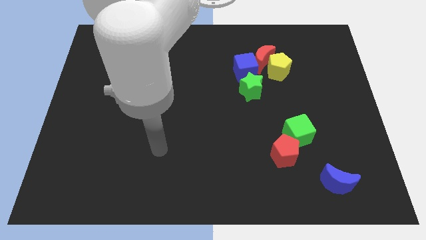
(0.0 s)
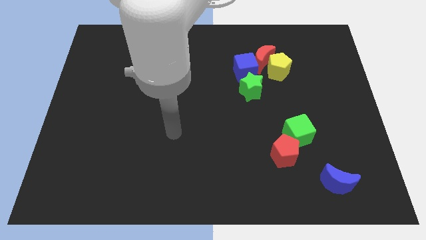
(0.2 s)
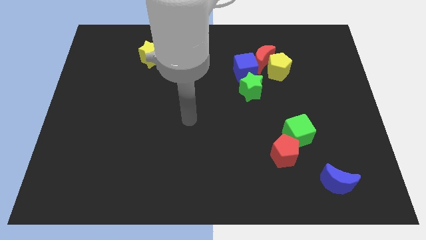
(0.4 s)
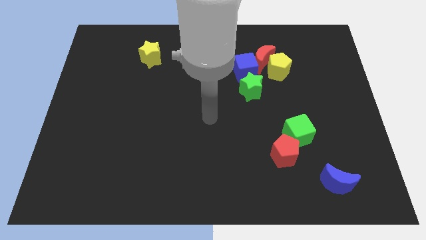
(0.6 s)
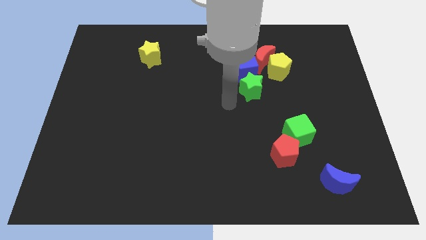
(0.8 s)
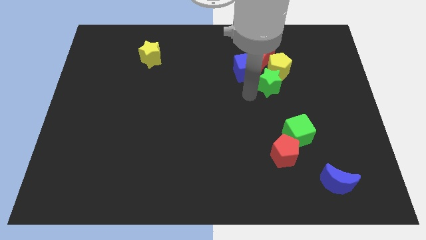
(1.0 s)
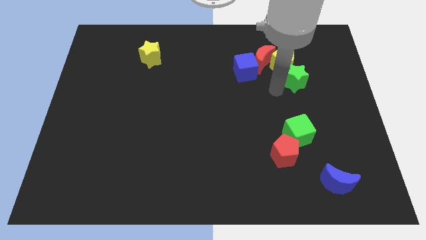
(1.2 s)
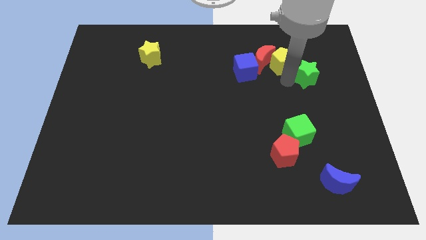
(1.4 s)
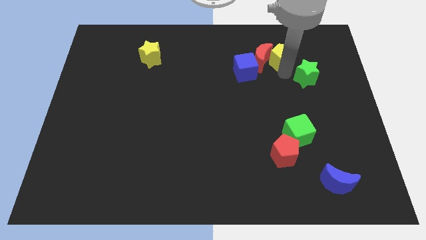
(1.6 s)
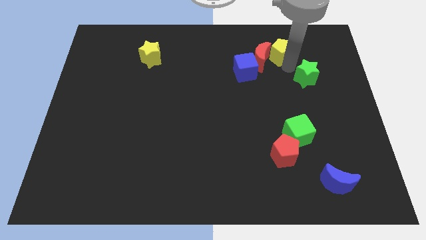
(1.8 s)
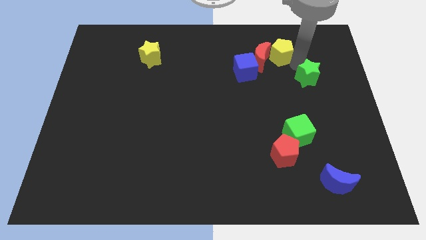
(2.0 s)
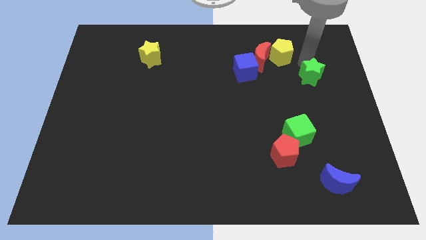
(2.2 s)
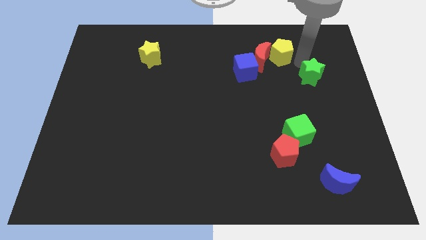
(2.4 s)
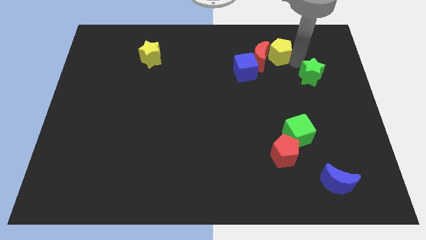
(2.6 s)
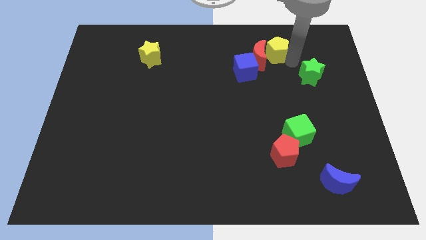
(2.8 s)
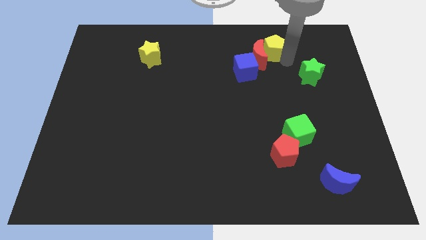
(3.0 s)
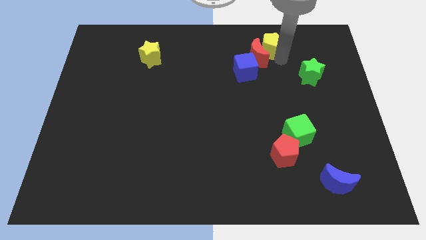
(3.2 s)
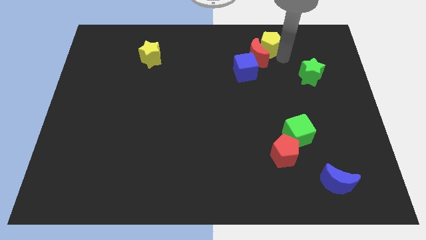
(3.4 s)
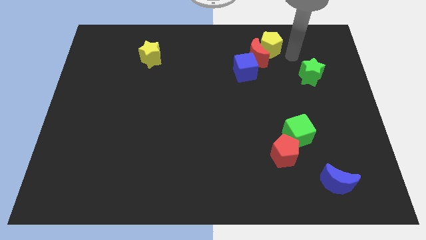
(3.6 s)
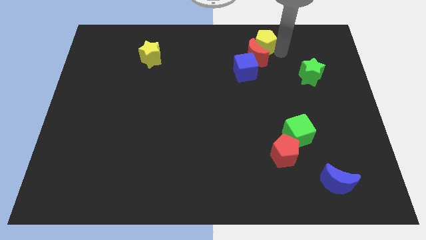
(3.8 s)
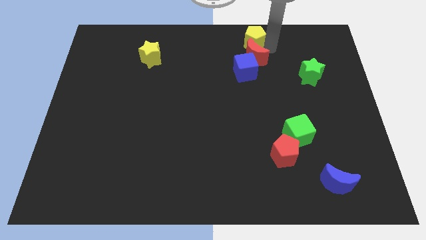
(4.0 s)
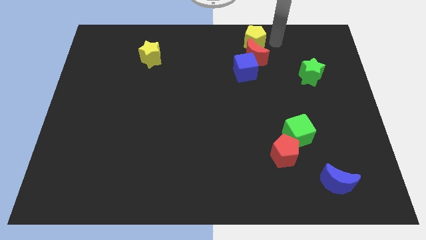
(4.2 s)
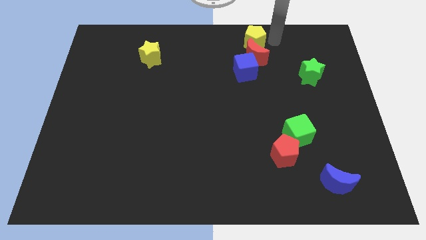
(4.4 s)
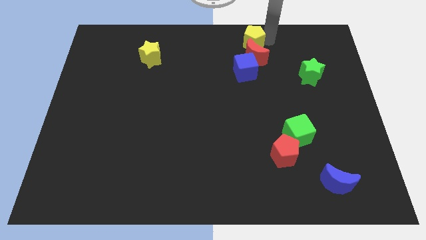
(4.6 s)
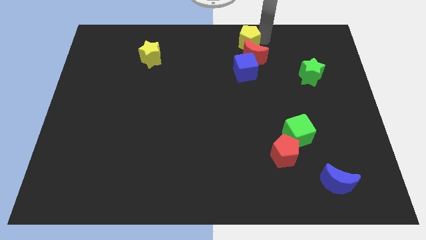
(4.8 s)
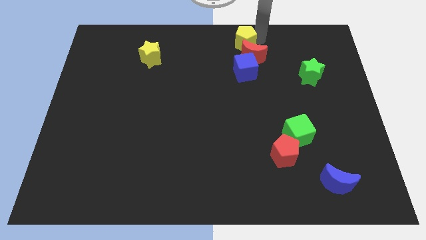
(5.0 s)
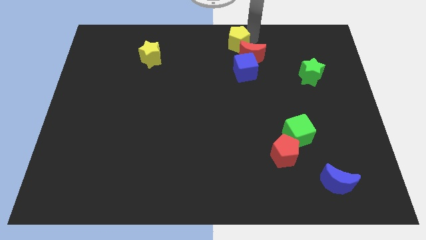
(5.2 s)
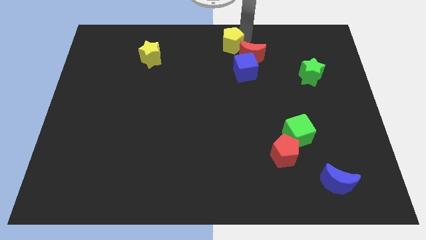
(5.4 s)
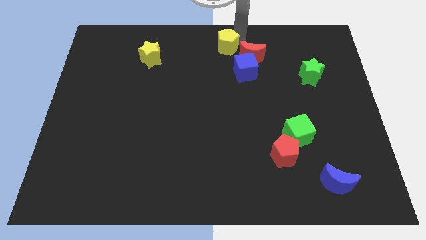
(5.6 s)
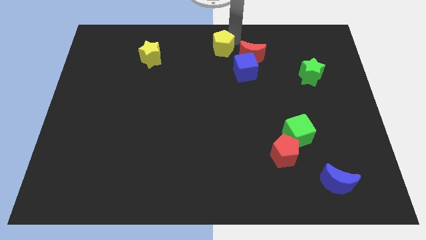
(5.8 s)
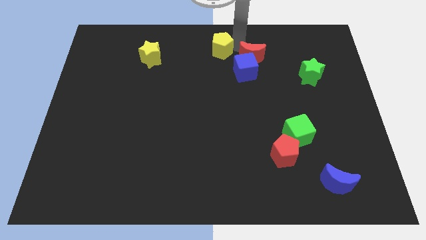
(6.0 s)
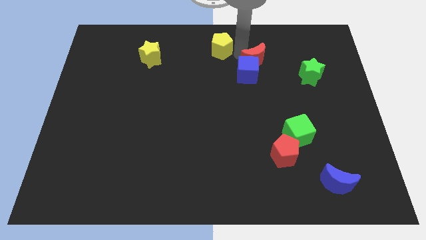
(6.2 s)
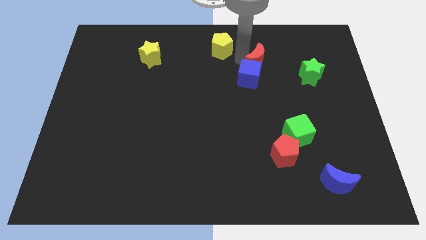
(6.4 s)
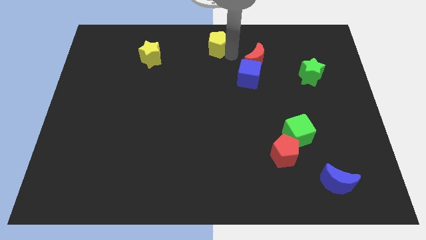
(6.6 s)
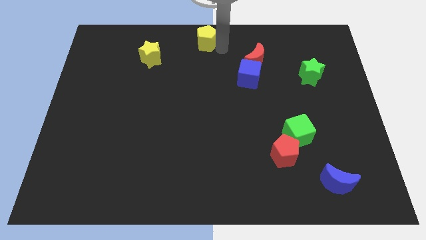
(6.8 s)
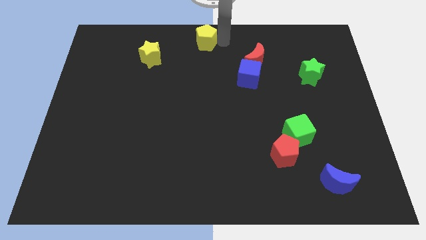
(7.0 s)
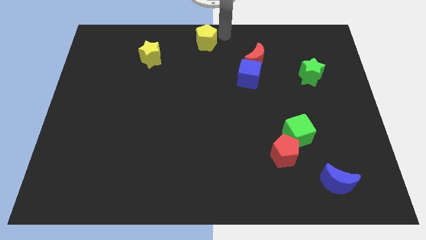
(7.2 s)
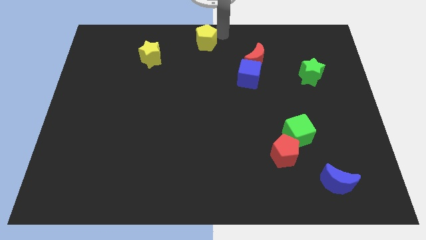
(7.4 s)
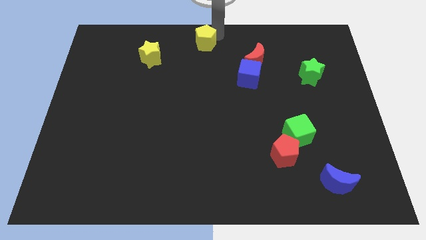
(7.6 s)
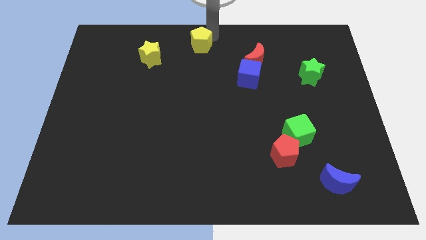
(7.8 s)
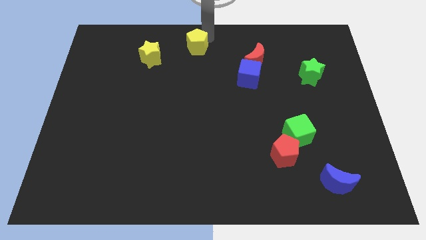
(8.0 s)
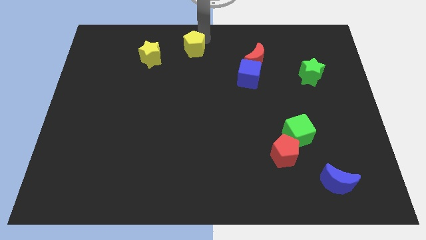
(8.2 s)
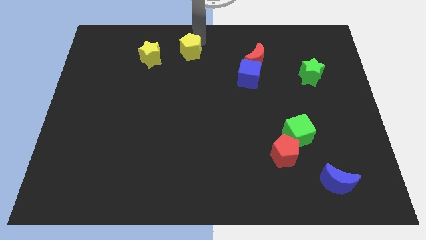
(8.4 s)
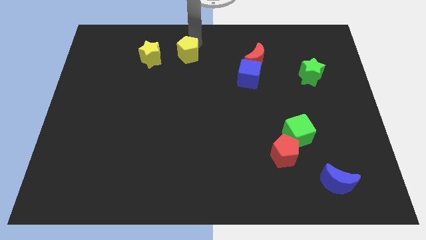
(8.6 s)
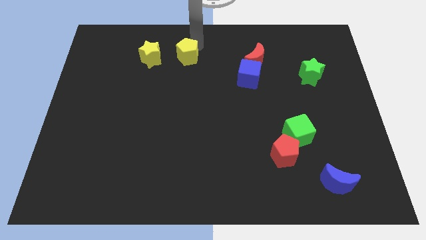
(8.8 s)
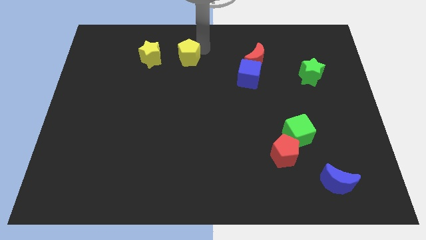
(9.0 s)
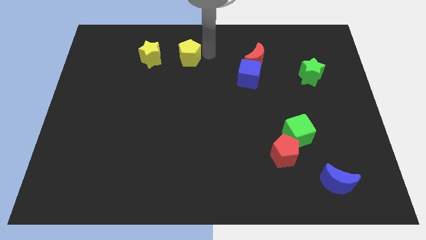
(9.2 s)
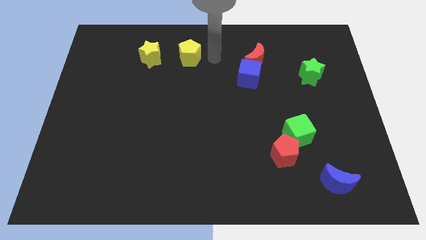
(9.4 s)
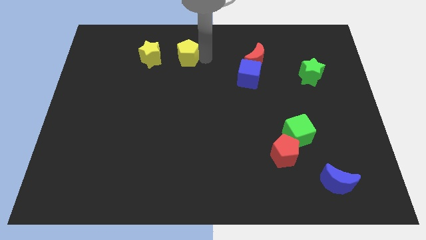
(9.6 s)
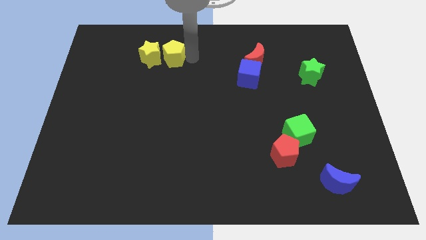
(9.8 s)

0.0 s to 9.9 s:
slide the yellow pentagon towards the yellow star

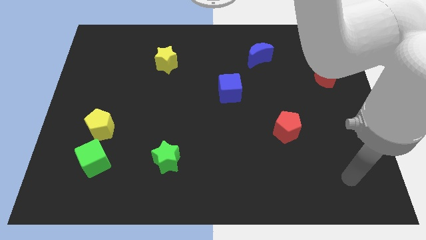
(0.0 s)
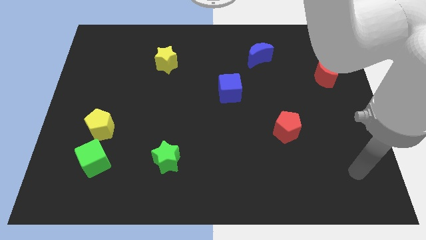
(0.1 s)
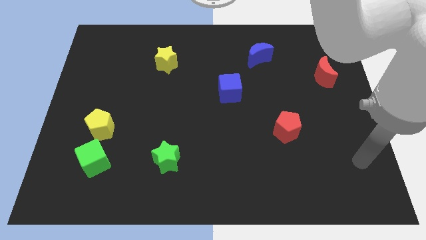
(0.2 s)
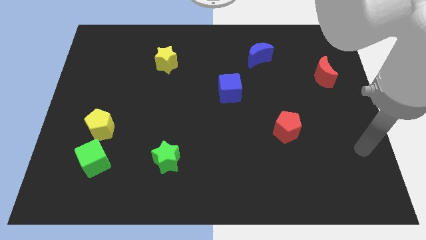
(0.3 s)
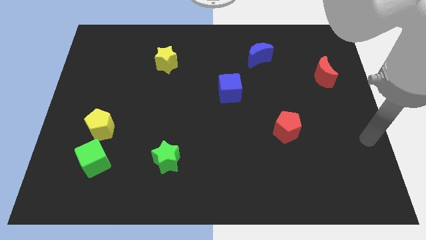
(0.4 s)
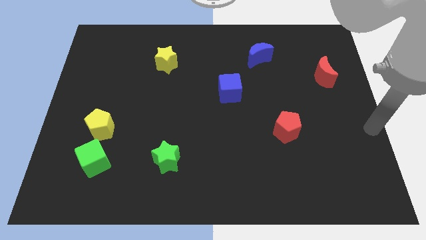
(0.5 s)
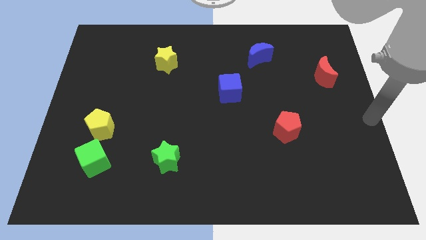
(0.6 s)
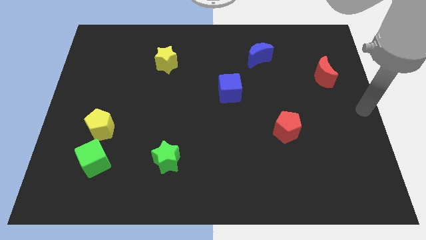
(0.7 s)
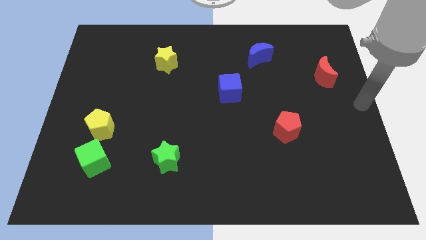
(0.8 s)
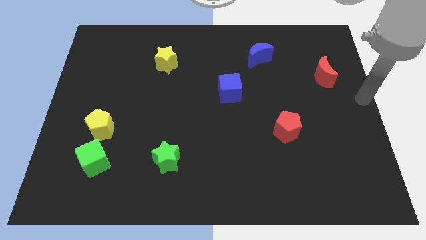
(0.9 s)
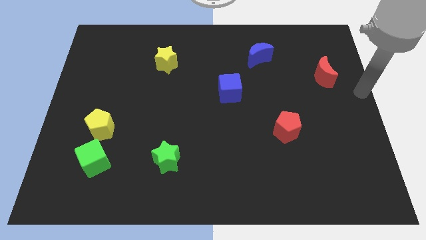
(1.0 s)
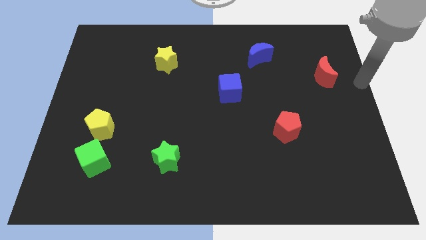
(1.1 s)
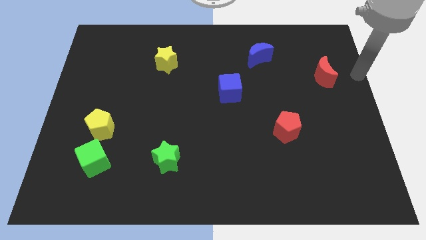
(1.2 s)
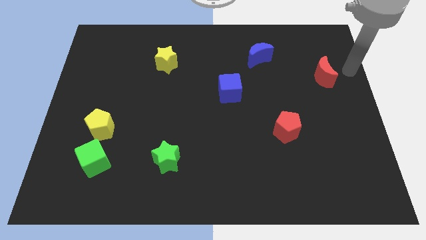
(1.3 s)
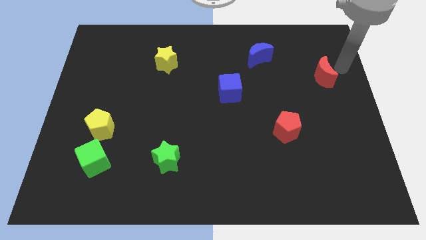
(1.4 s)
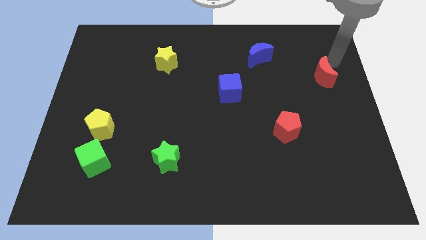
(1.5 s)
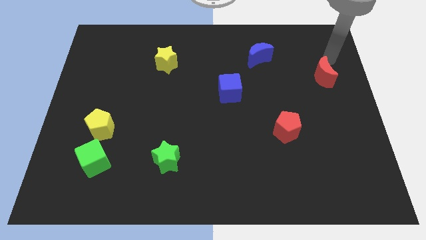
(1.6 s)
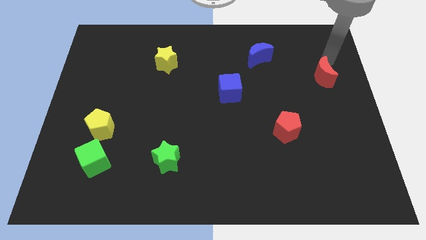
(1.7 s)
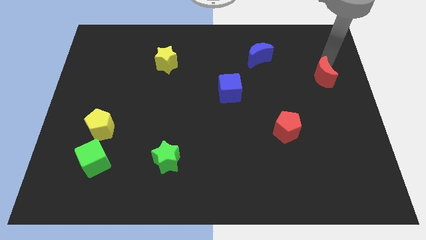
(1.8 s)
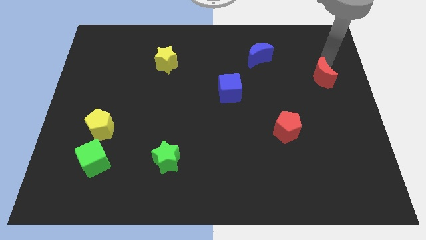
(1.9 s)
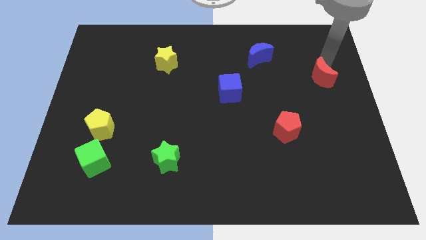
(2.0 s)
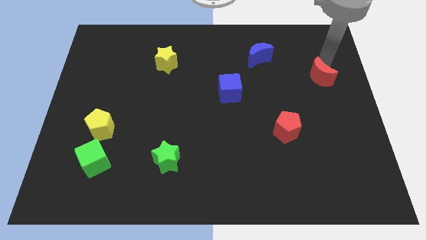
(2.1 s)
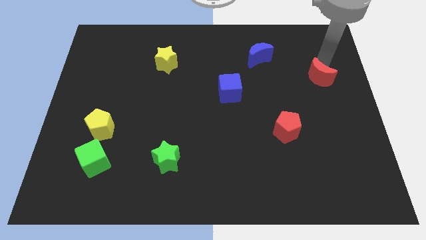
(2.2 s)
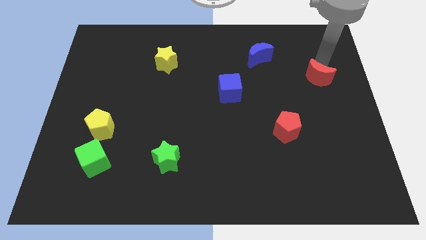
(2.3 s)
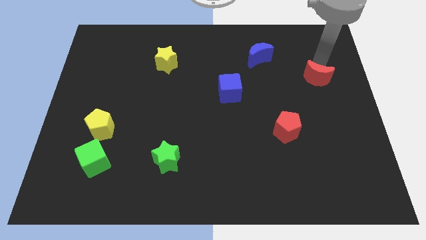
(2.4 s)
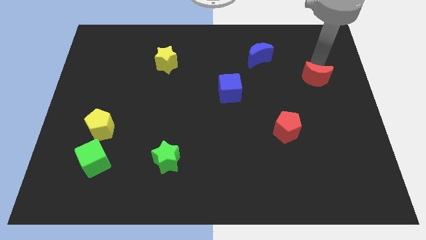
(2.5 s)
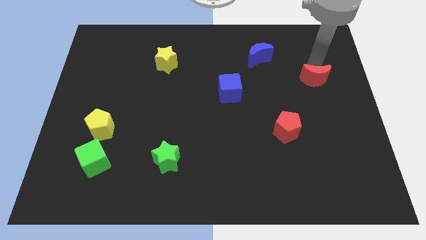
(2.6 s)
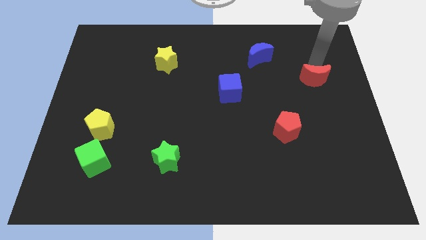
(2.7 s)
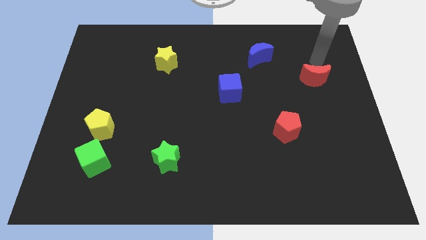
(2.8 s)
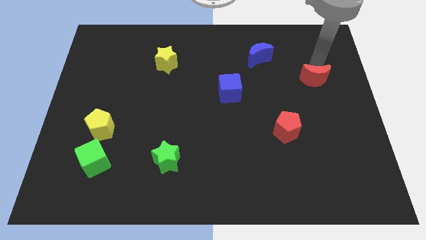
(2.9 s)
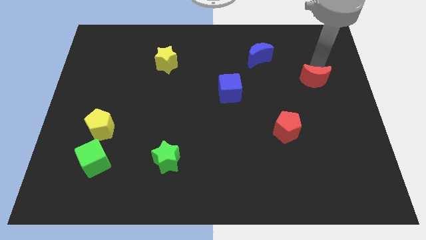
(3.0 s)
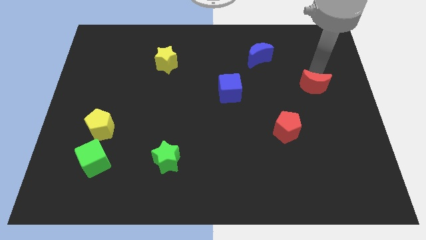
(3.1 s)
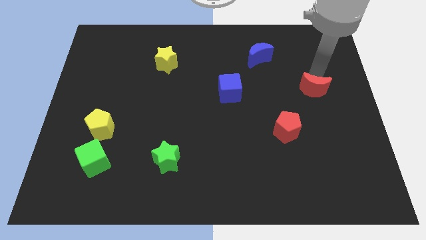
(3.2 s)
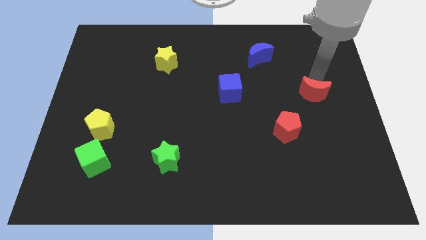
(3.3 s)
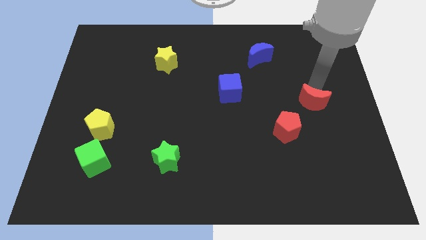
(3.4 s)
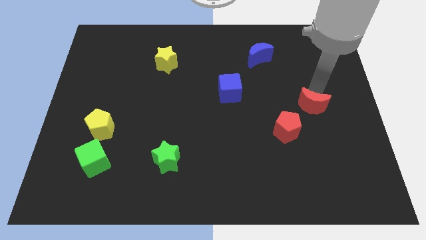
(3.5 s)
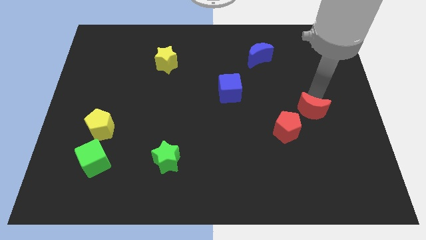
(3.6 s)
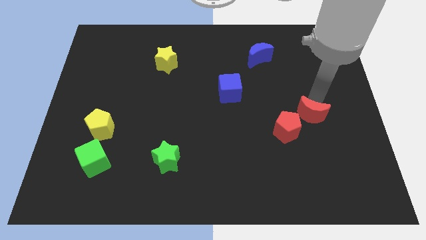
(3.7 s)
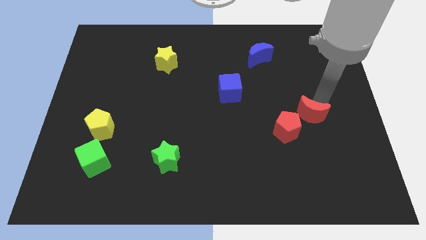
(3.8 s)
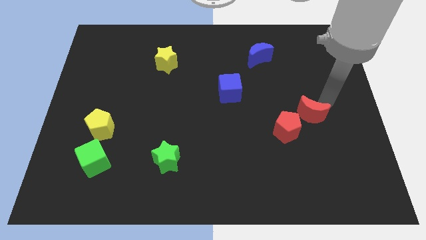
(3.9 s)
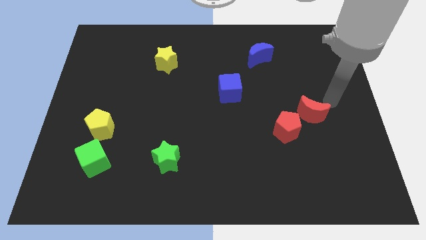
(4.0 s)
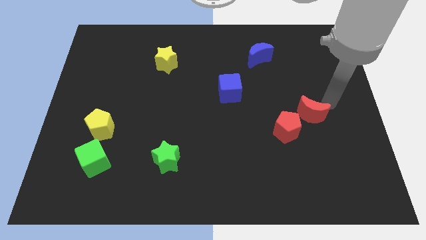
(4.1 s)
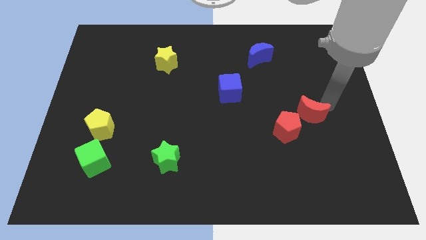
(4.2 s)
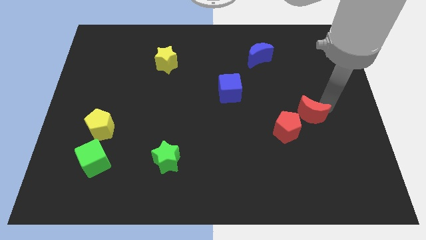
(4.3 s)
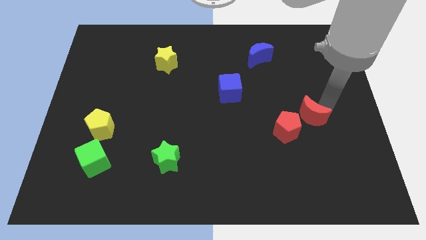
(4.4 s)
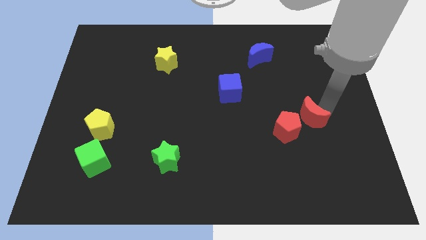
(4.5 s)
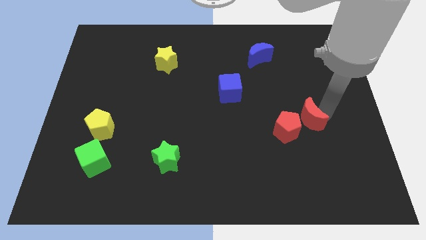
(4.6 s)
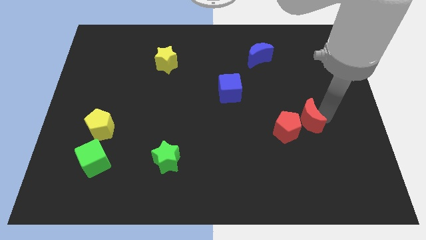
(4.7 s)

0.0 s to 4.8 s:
move the red moon next to the red pentagon
